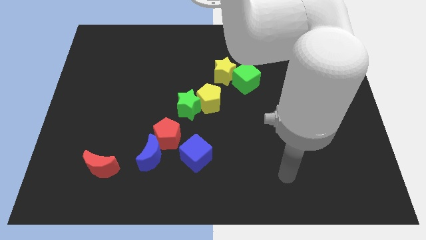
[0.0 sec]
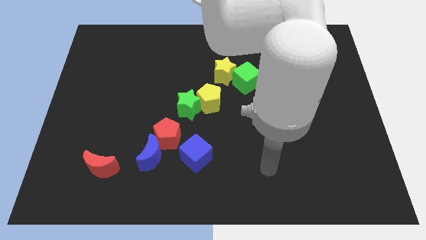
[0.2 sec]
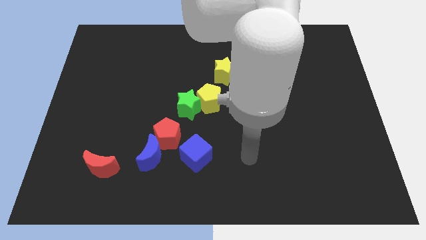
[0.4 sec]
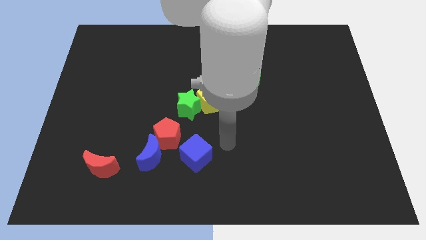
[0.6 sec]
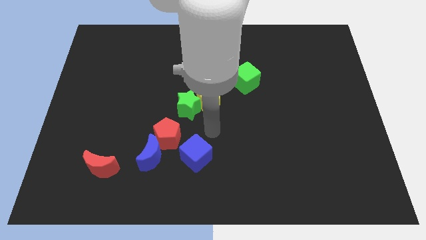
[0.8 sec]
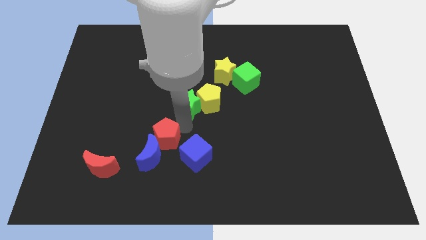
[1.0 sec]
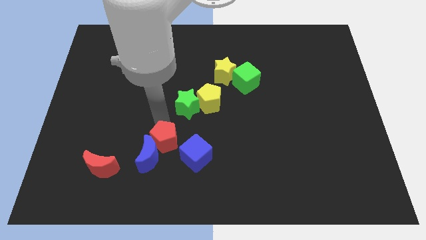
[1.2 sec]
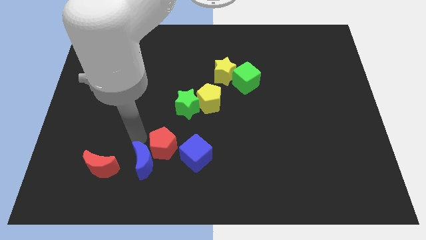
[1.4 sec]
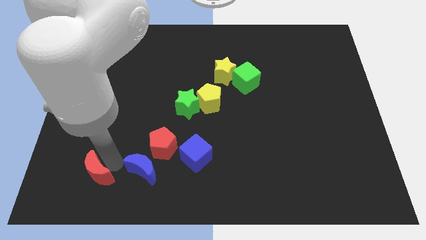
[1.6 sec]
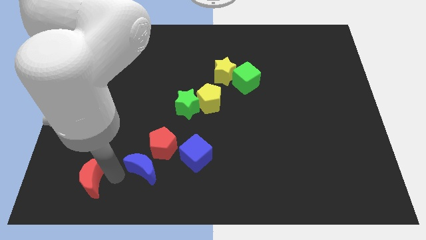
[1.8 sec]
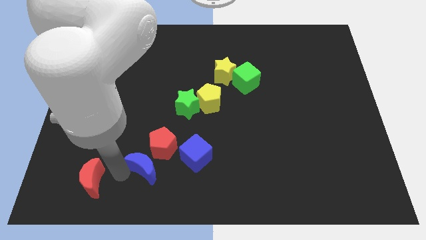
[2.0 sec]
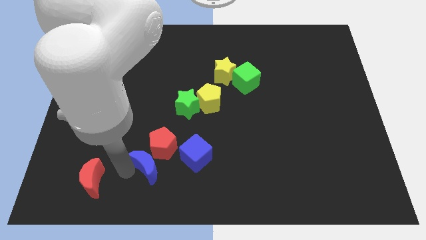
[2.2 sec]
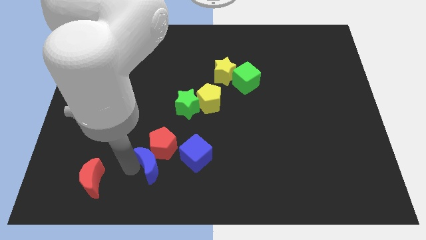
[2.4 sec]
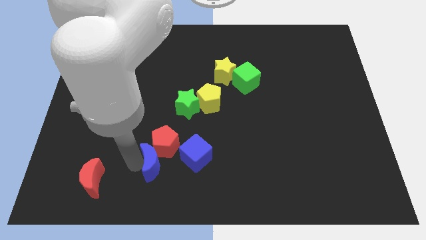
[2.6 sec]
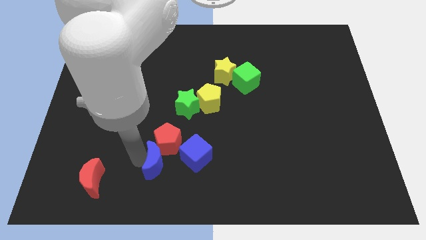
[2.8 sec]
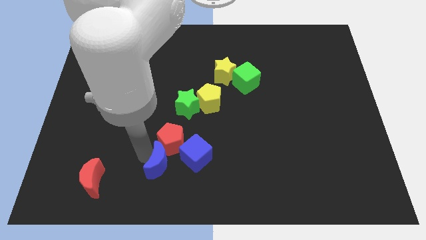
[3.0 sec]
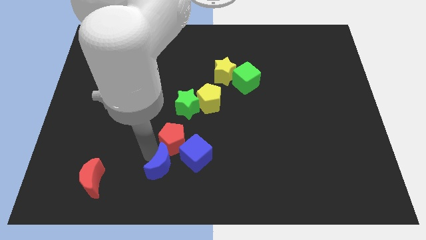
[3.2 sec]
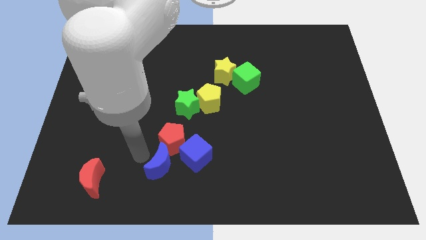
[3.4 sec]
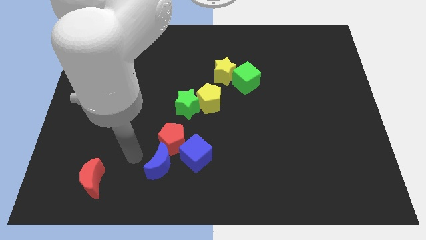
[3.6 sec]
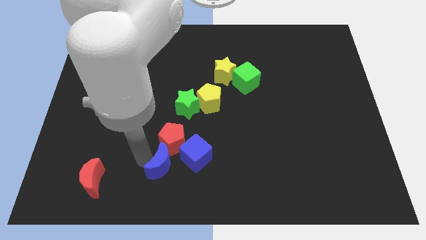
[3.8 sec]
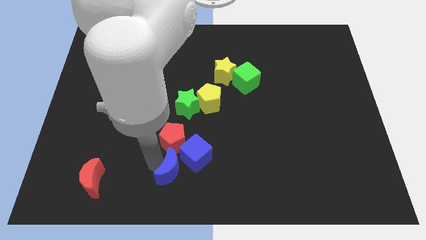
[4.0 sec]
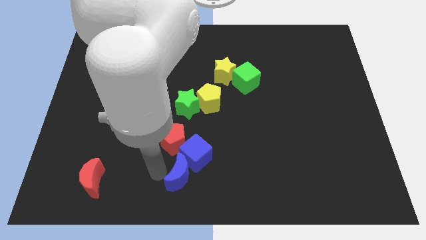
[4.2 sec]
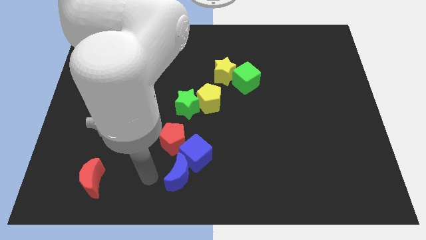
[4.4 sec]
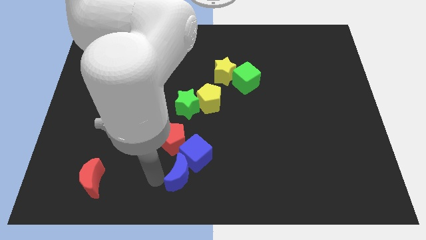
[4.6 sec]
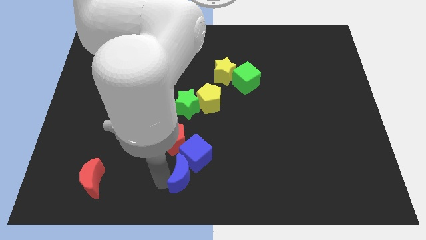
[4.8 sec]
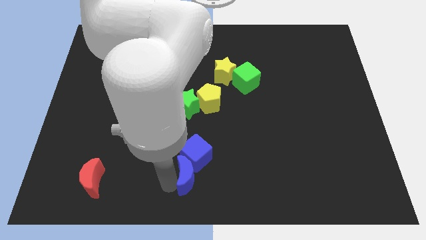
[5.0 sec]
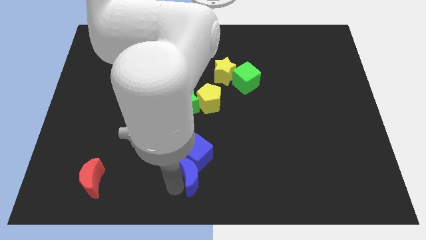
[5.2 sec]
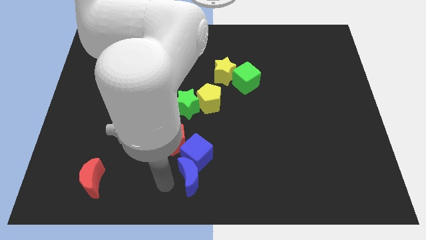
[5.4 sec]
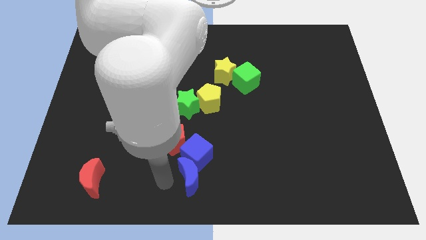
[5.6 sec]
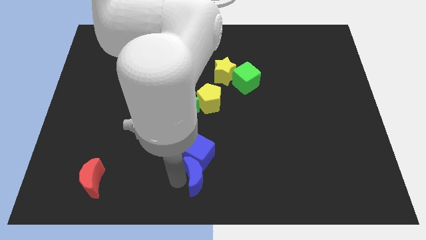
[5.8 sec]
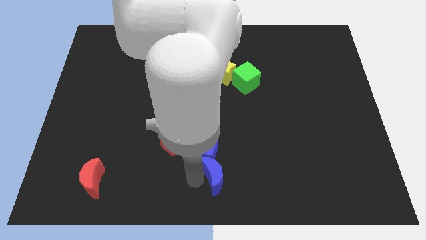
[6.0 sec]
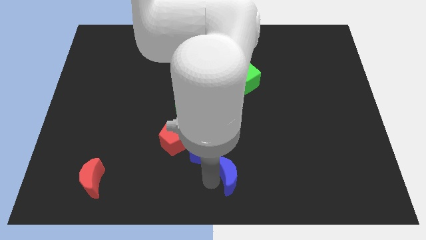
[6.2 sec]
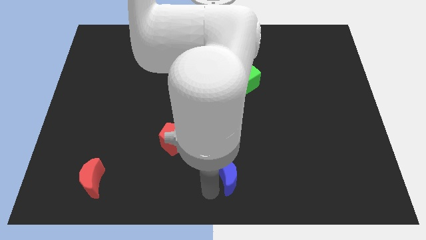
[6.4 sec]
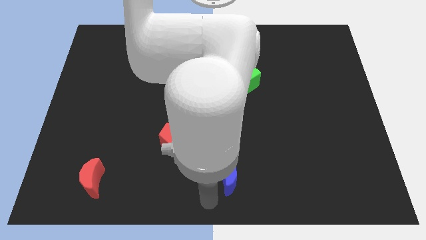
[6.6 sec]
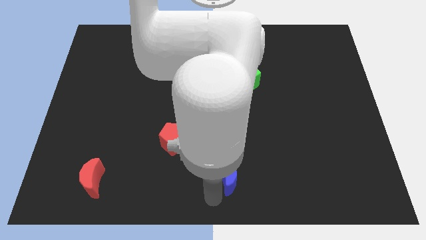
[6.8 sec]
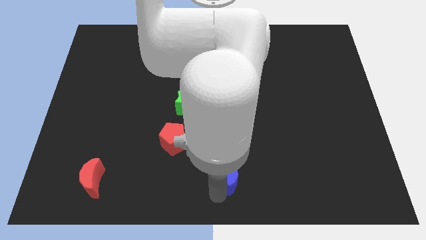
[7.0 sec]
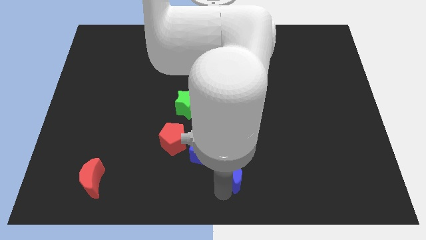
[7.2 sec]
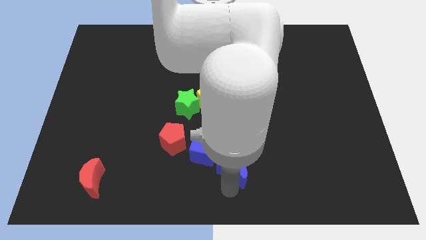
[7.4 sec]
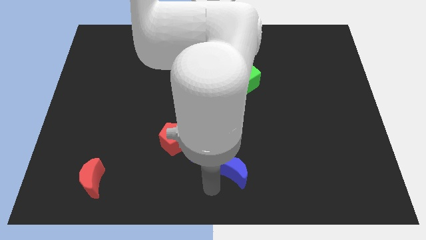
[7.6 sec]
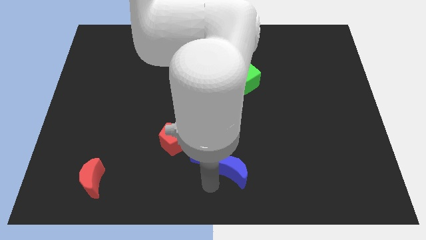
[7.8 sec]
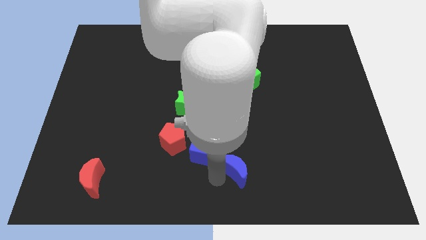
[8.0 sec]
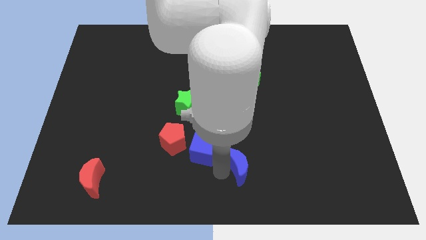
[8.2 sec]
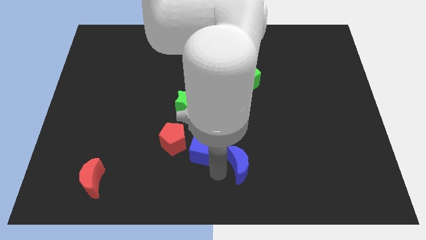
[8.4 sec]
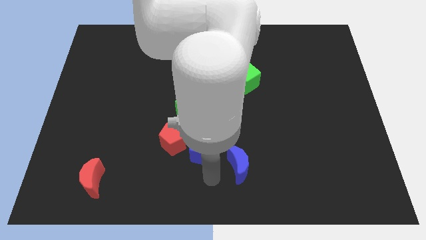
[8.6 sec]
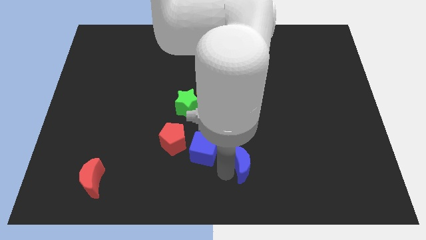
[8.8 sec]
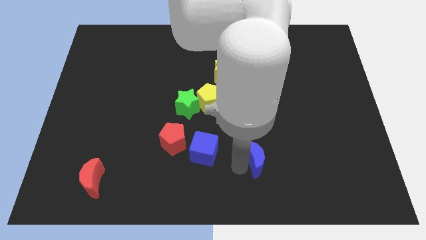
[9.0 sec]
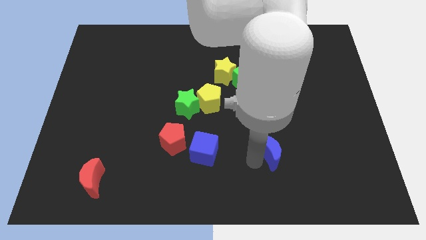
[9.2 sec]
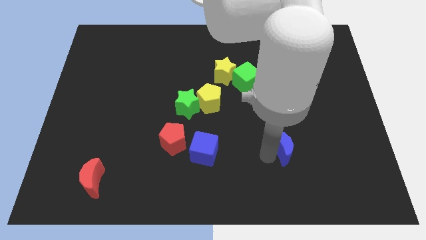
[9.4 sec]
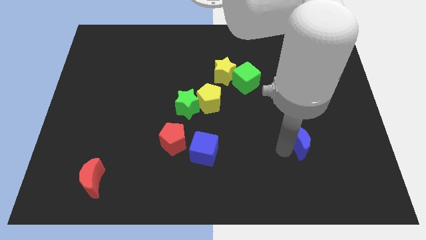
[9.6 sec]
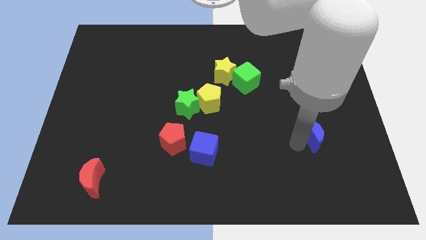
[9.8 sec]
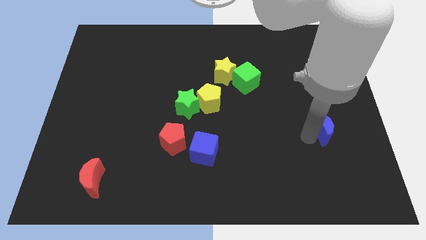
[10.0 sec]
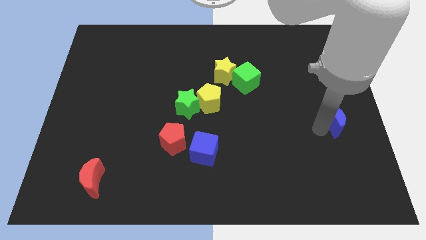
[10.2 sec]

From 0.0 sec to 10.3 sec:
move the blue moon to the right side of the board
